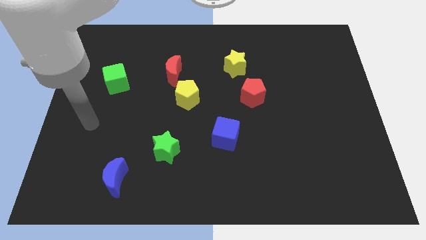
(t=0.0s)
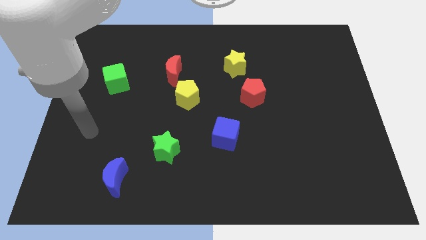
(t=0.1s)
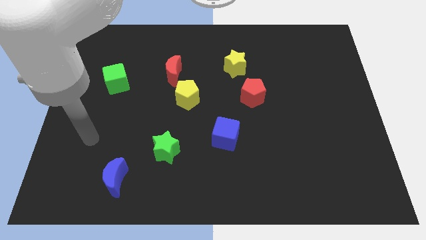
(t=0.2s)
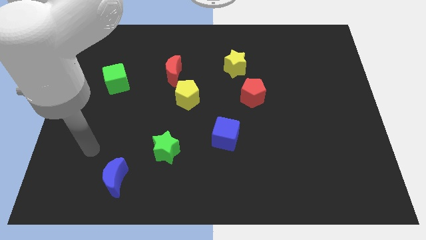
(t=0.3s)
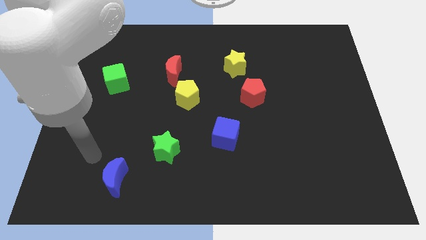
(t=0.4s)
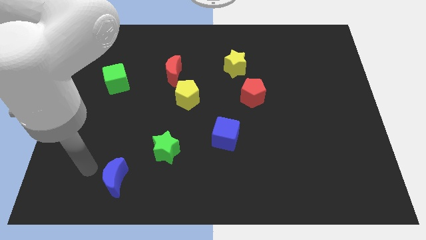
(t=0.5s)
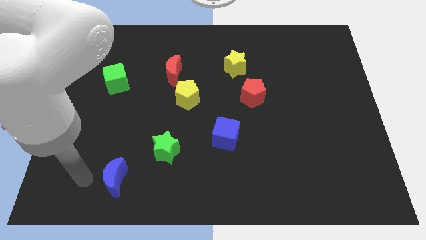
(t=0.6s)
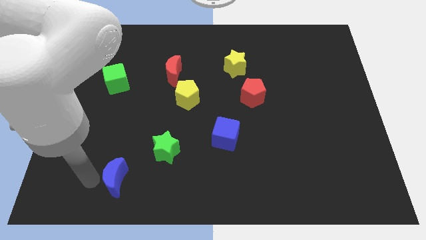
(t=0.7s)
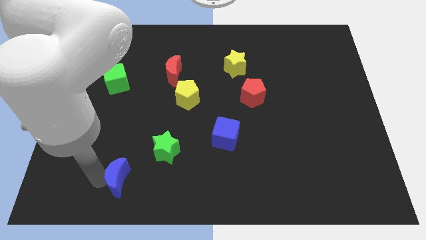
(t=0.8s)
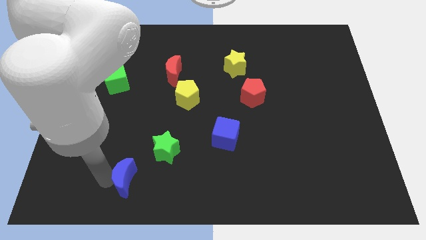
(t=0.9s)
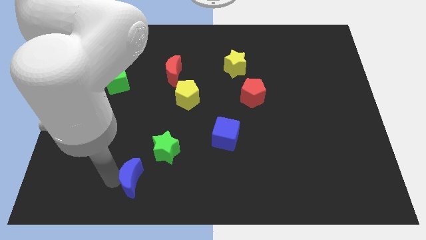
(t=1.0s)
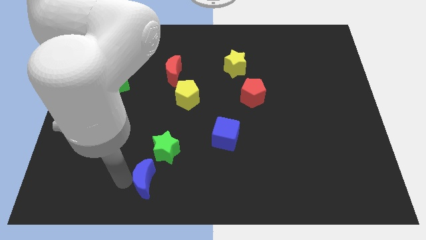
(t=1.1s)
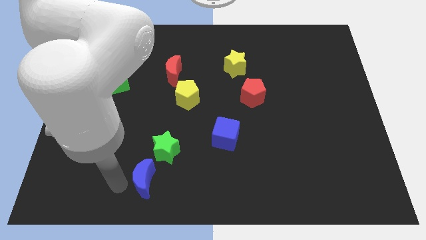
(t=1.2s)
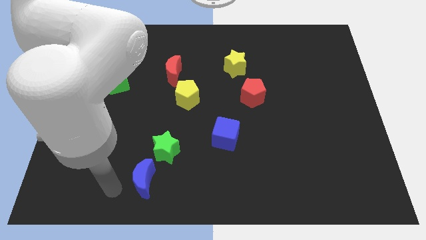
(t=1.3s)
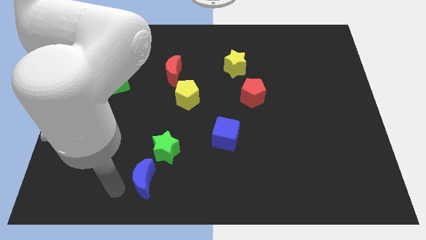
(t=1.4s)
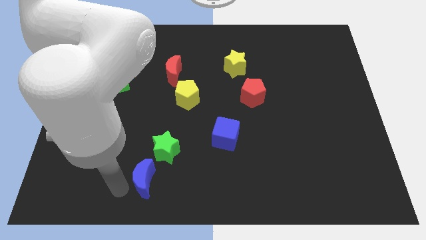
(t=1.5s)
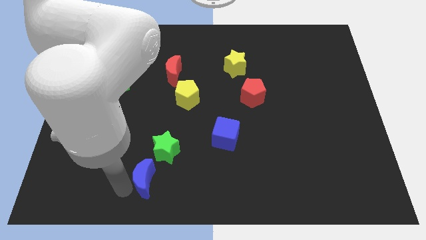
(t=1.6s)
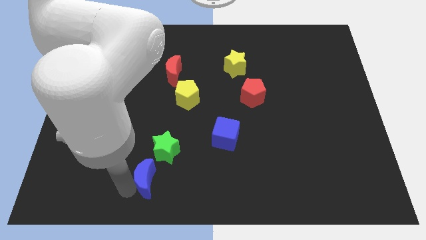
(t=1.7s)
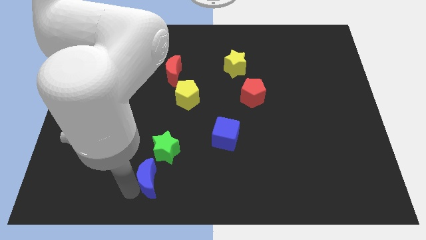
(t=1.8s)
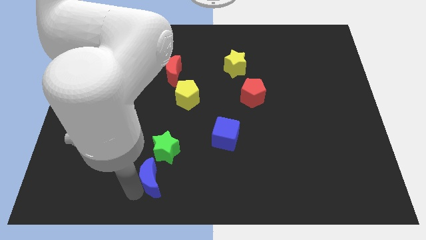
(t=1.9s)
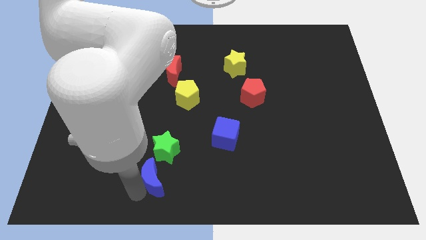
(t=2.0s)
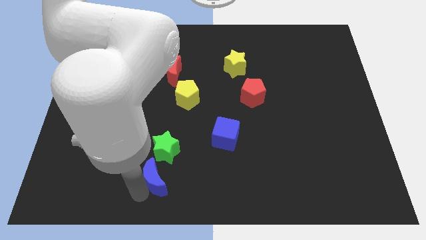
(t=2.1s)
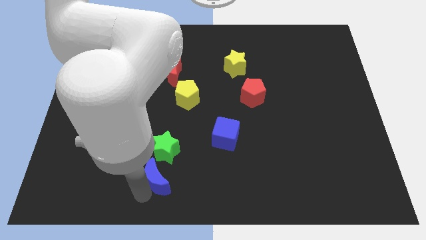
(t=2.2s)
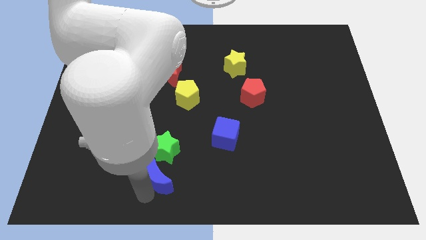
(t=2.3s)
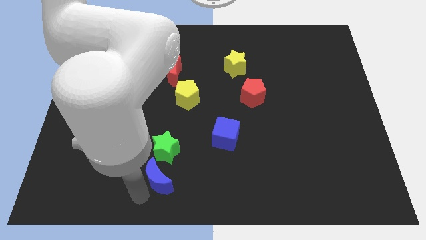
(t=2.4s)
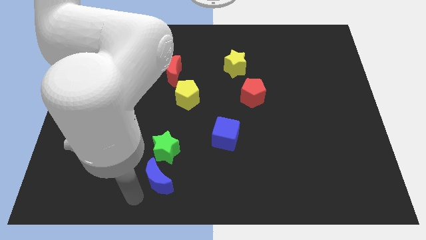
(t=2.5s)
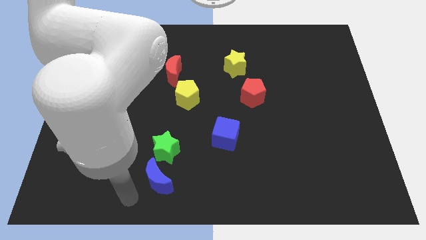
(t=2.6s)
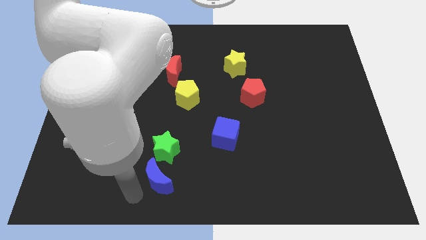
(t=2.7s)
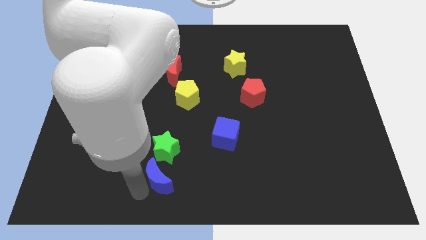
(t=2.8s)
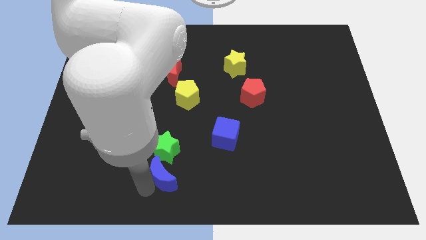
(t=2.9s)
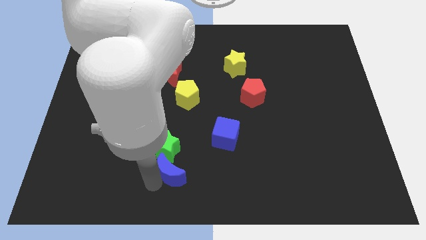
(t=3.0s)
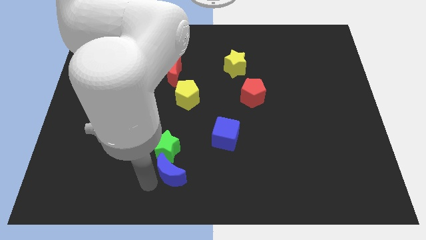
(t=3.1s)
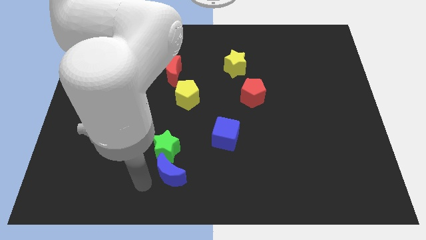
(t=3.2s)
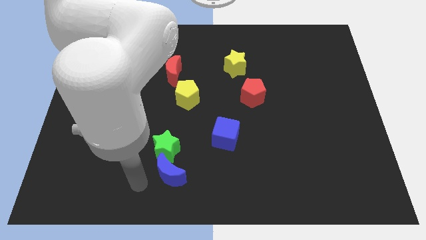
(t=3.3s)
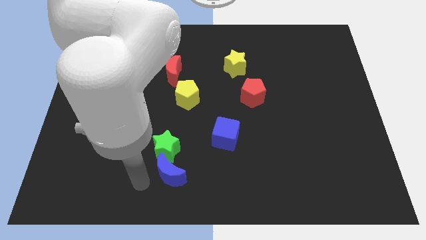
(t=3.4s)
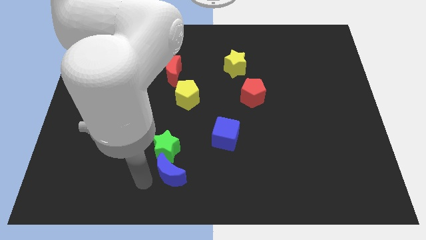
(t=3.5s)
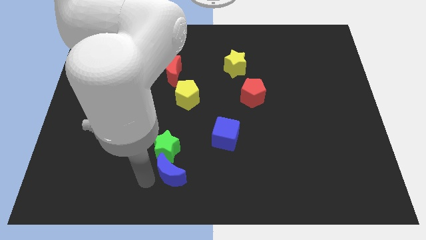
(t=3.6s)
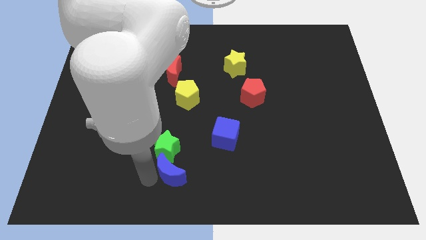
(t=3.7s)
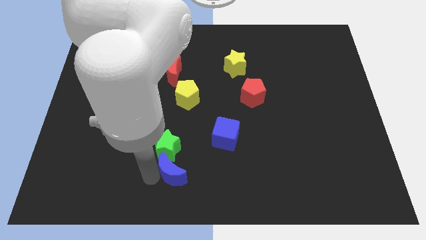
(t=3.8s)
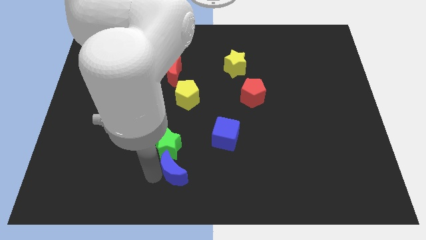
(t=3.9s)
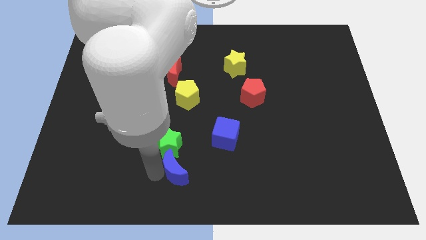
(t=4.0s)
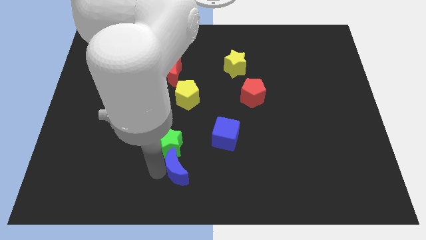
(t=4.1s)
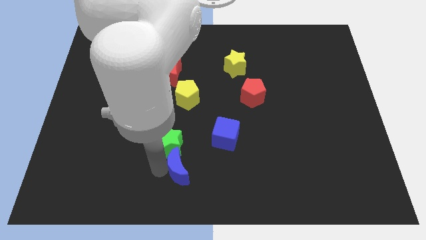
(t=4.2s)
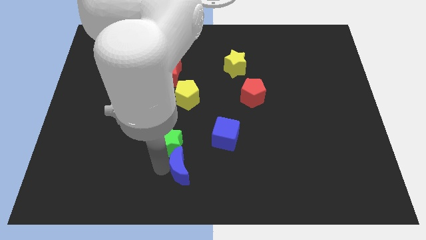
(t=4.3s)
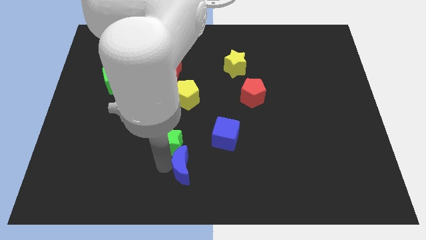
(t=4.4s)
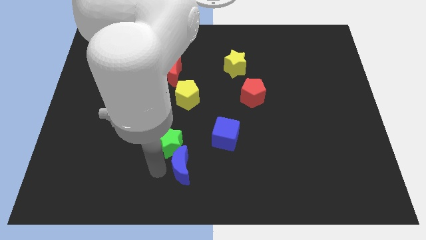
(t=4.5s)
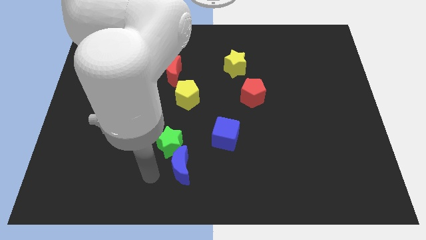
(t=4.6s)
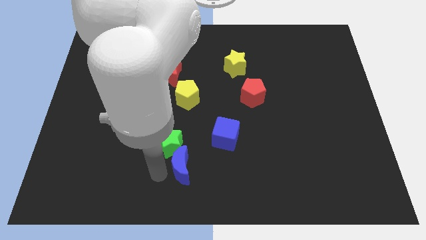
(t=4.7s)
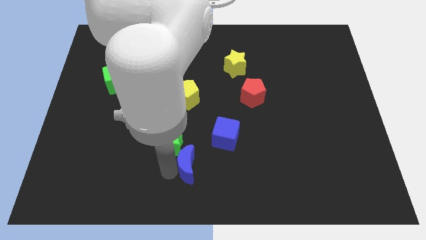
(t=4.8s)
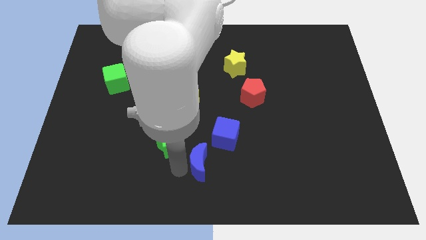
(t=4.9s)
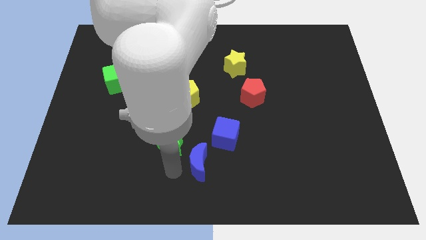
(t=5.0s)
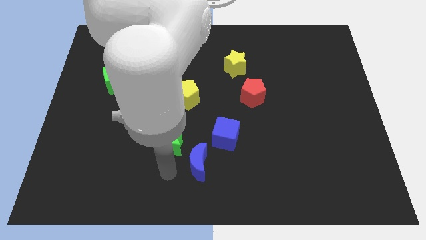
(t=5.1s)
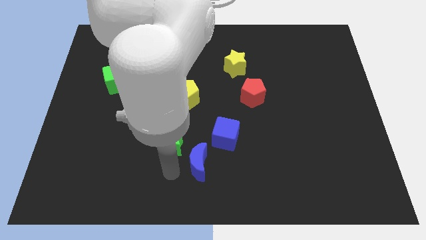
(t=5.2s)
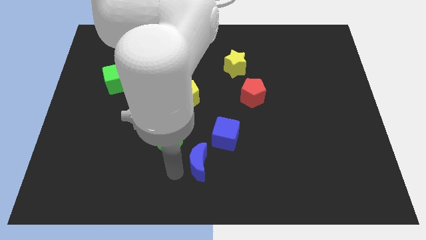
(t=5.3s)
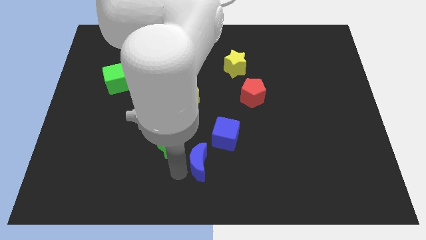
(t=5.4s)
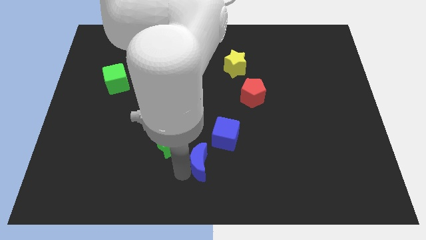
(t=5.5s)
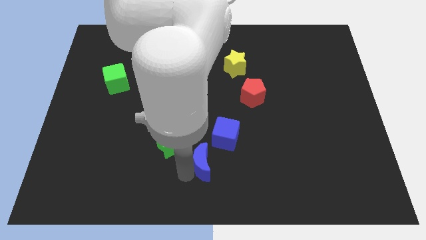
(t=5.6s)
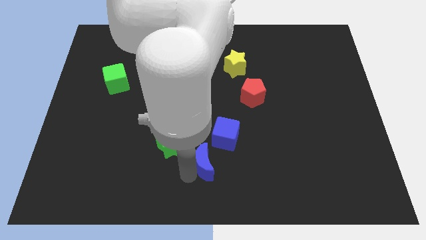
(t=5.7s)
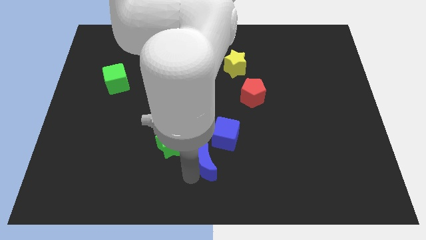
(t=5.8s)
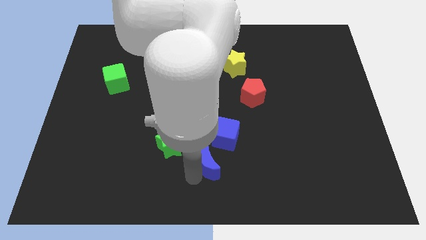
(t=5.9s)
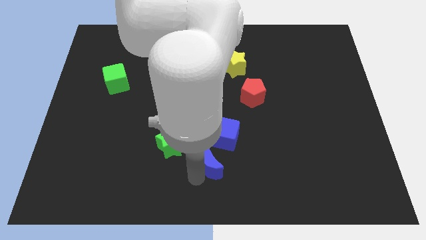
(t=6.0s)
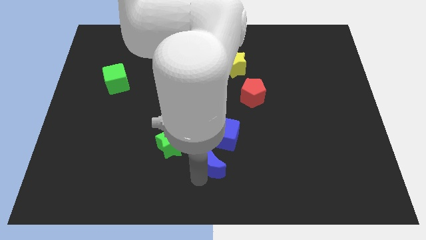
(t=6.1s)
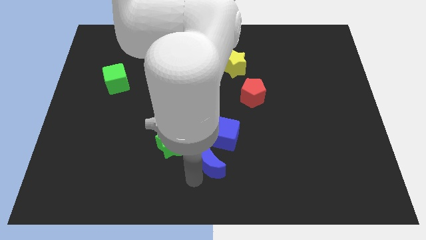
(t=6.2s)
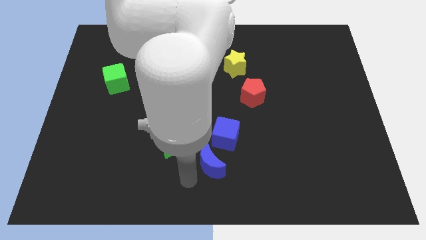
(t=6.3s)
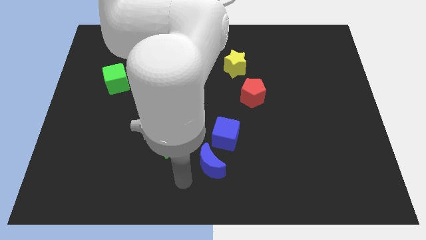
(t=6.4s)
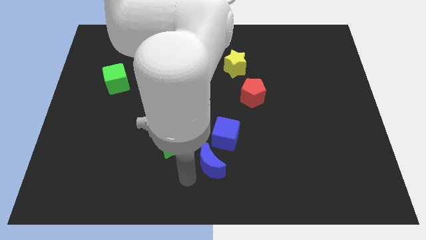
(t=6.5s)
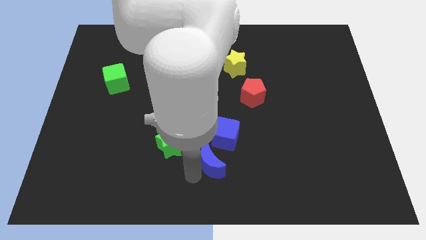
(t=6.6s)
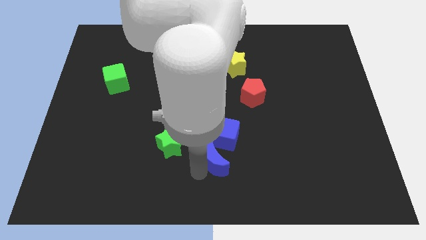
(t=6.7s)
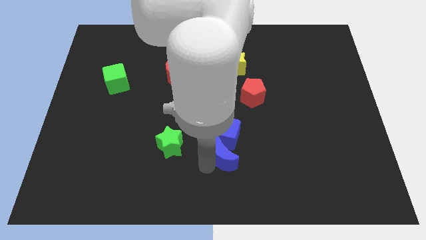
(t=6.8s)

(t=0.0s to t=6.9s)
push the blue moon to the bottom right of the blue cube

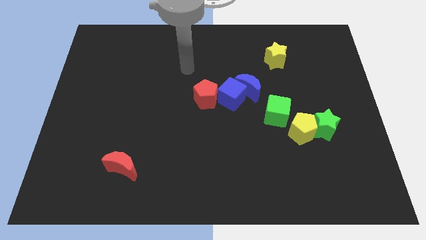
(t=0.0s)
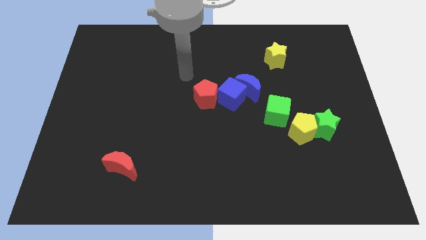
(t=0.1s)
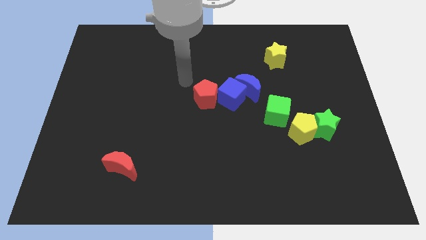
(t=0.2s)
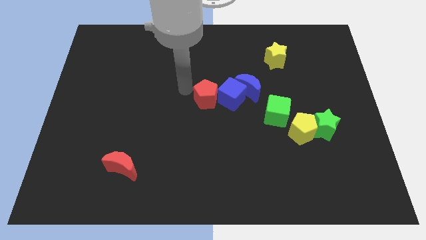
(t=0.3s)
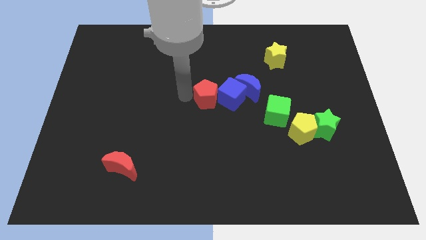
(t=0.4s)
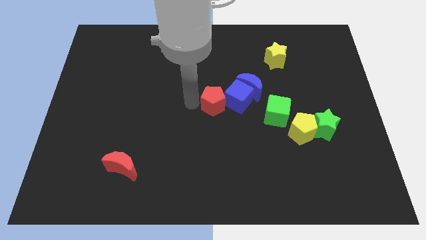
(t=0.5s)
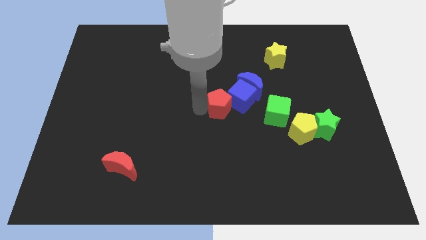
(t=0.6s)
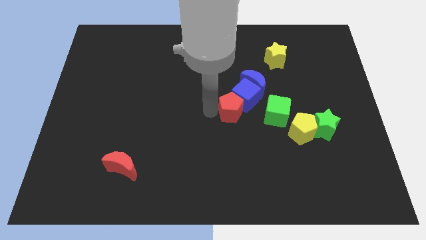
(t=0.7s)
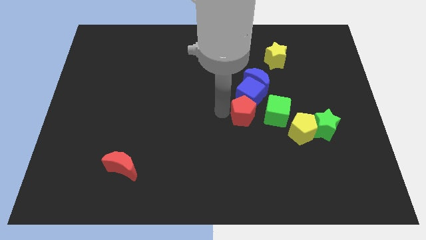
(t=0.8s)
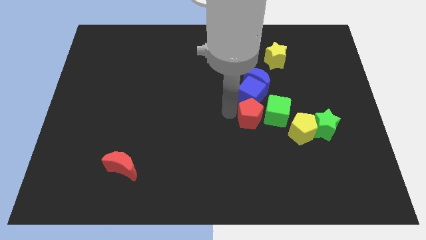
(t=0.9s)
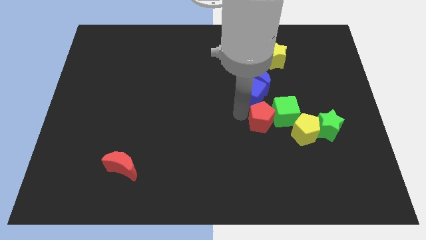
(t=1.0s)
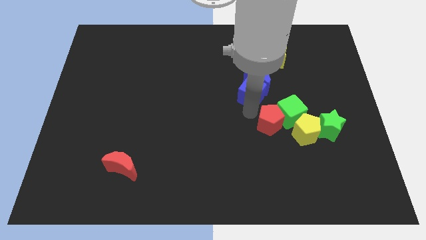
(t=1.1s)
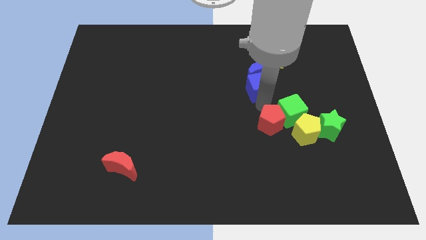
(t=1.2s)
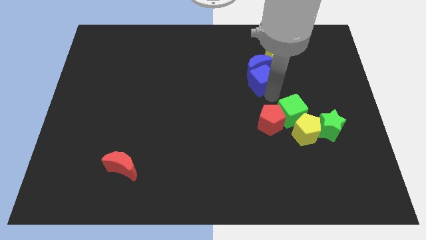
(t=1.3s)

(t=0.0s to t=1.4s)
slide the blue moon left of the yellow star
